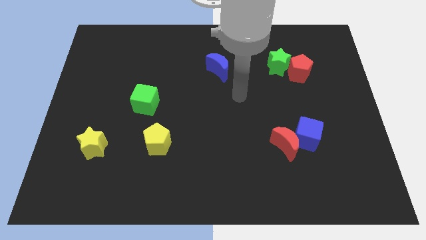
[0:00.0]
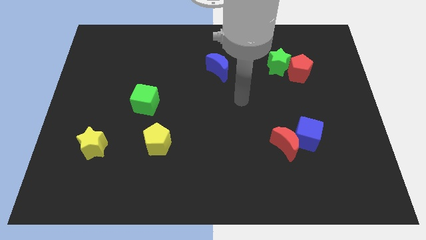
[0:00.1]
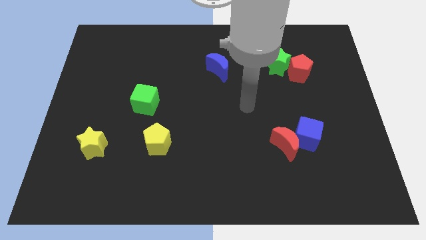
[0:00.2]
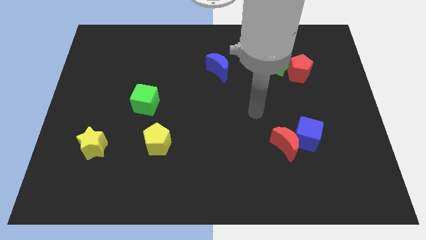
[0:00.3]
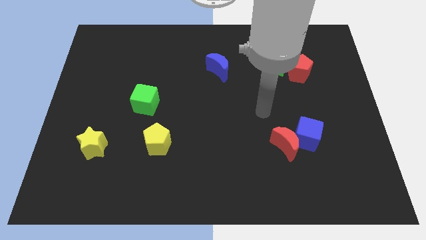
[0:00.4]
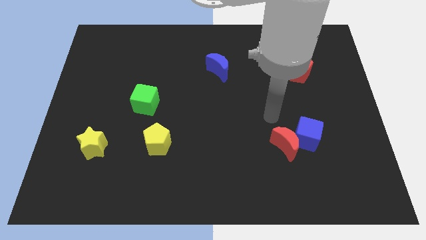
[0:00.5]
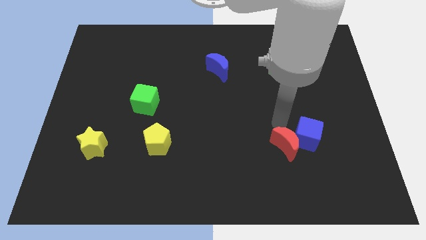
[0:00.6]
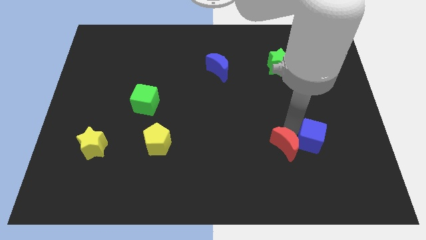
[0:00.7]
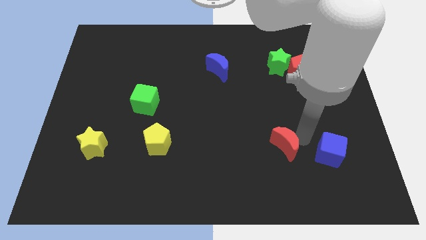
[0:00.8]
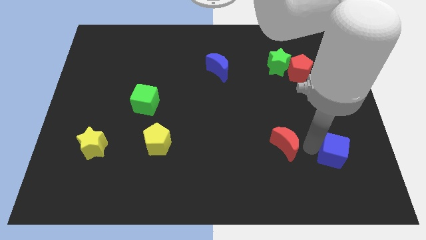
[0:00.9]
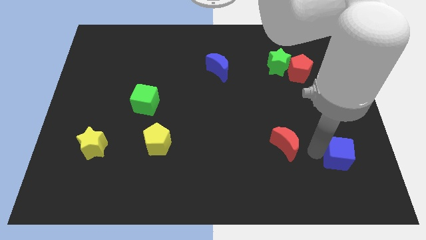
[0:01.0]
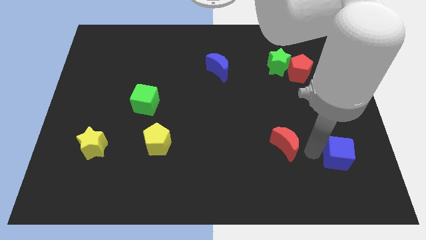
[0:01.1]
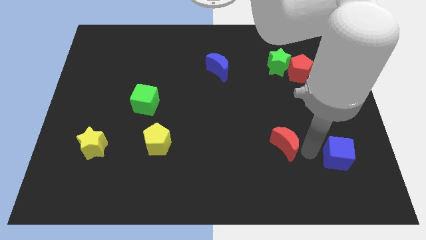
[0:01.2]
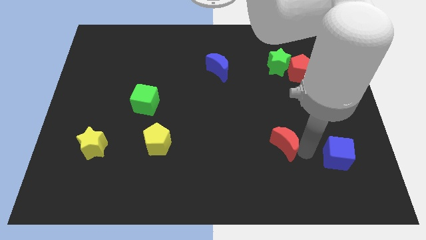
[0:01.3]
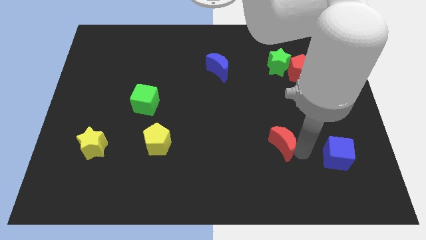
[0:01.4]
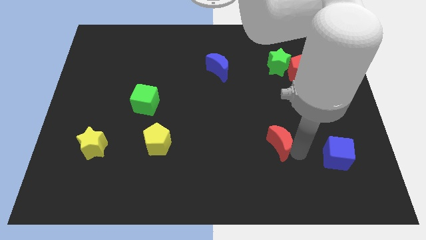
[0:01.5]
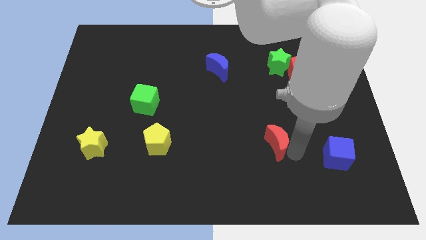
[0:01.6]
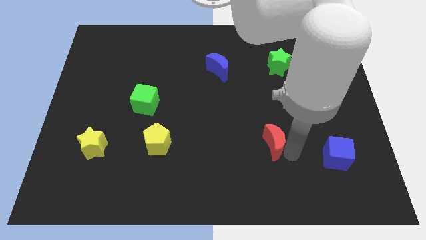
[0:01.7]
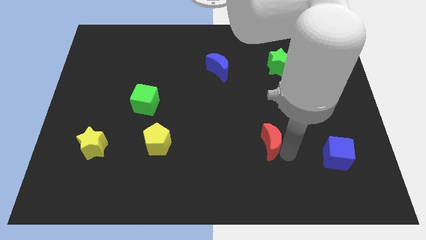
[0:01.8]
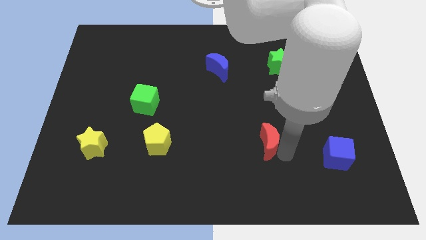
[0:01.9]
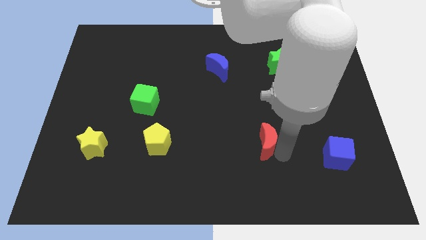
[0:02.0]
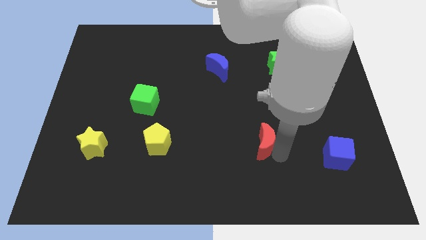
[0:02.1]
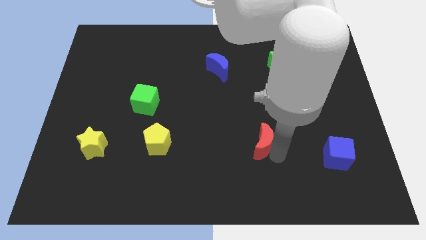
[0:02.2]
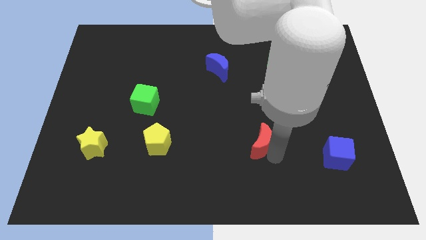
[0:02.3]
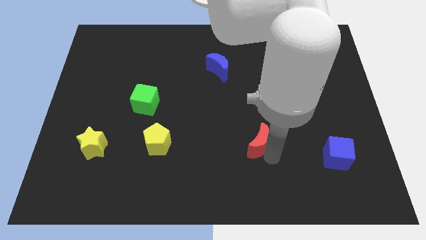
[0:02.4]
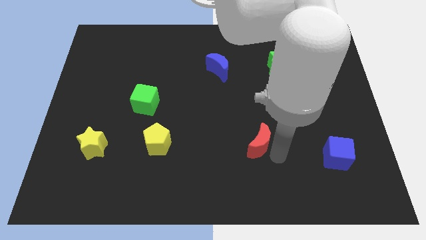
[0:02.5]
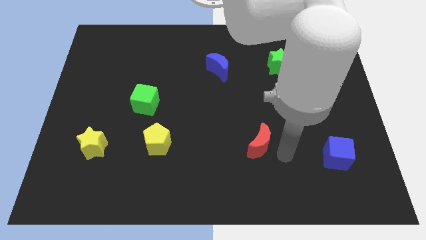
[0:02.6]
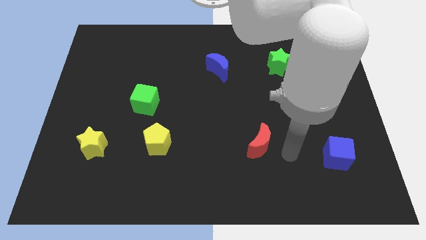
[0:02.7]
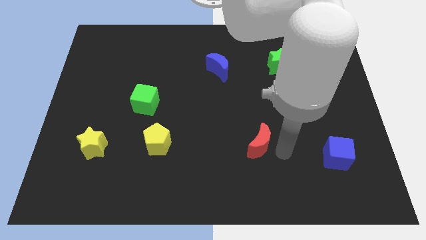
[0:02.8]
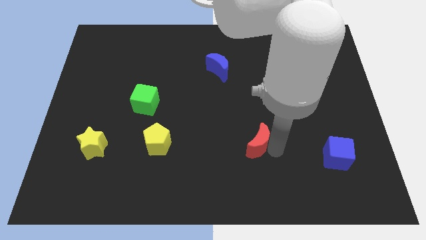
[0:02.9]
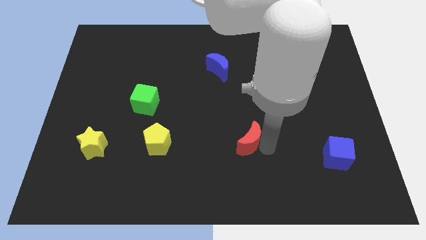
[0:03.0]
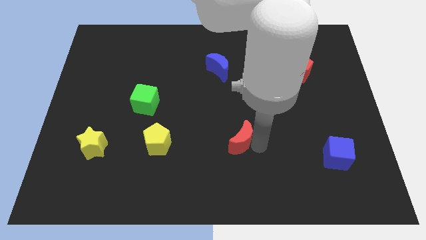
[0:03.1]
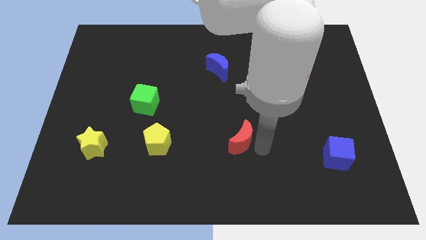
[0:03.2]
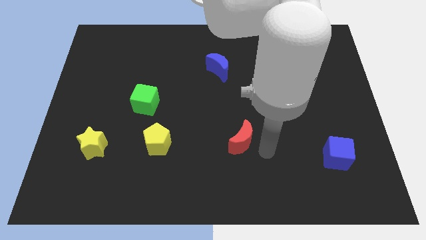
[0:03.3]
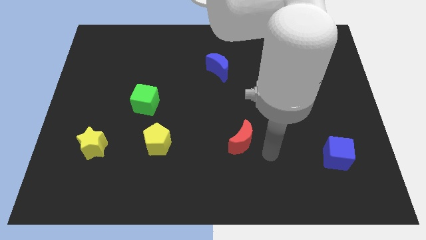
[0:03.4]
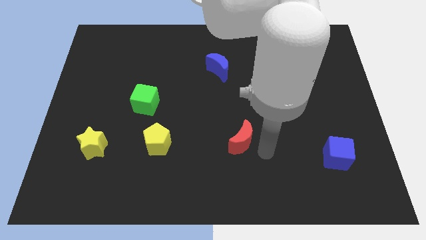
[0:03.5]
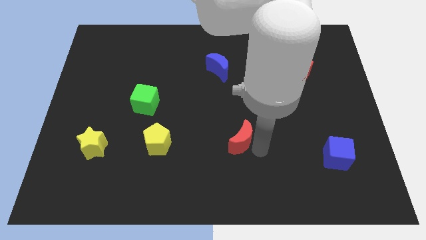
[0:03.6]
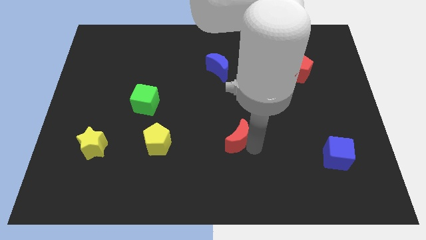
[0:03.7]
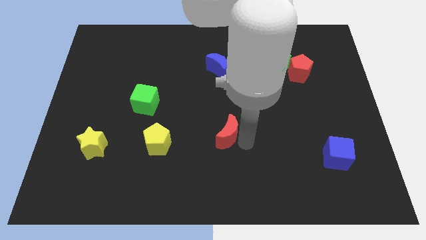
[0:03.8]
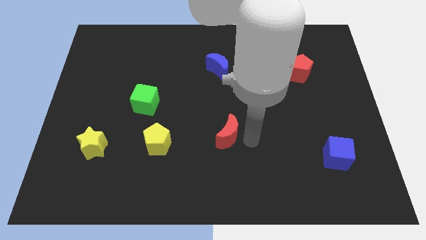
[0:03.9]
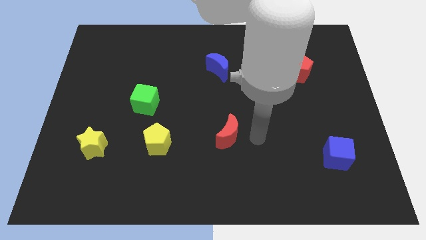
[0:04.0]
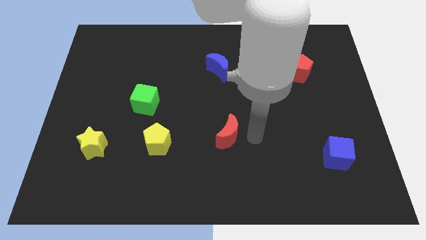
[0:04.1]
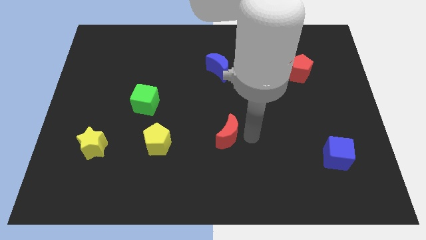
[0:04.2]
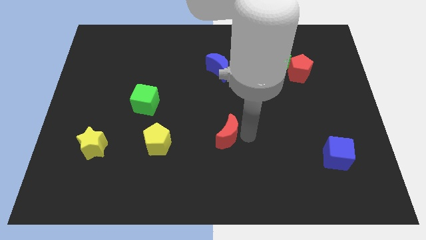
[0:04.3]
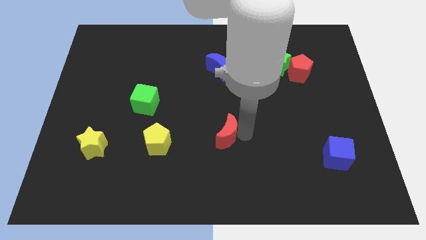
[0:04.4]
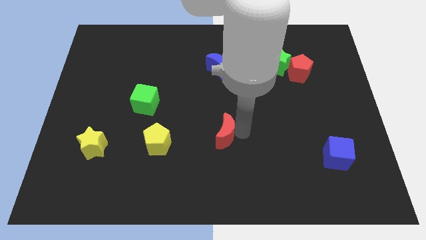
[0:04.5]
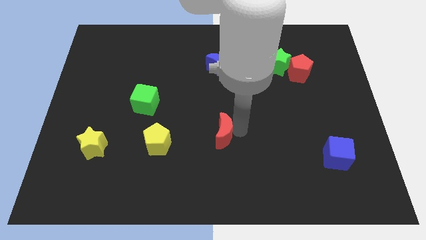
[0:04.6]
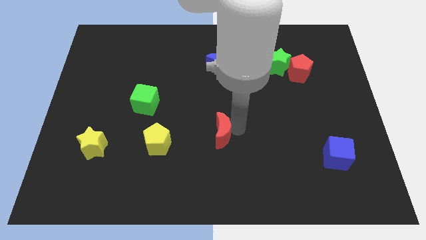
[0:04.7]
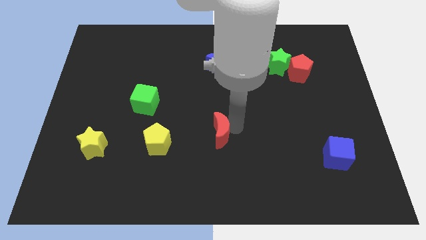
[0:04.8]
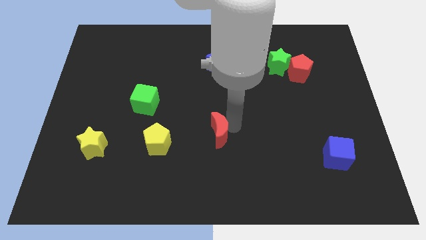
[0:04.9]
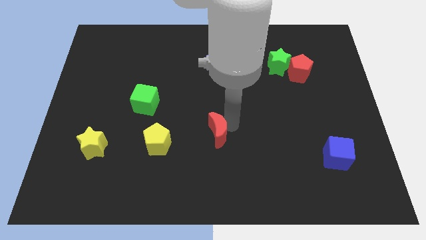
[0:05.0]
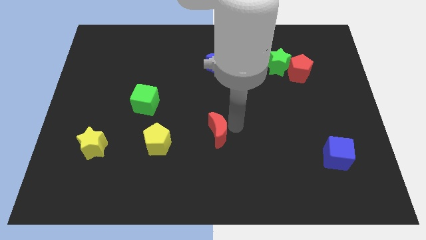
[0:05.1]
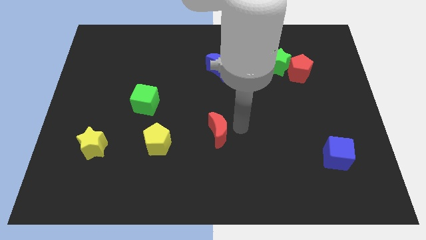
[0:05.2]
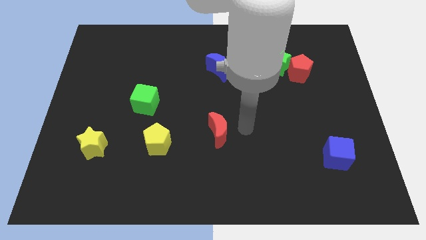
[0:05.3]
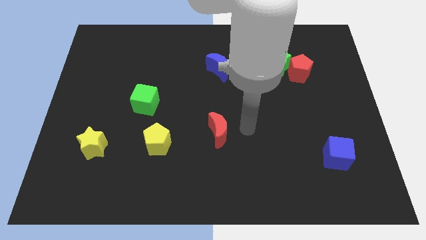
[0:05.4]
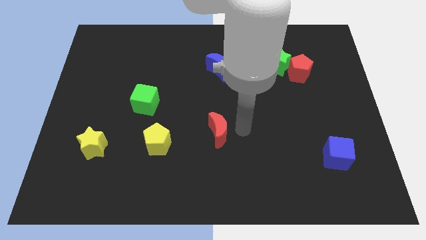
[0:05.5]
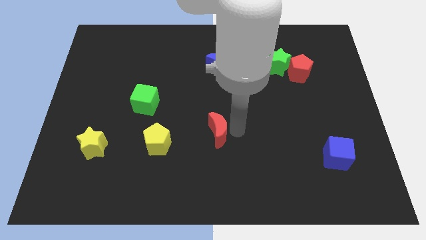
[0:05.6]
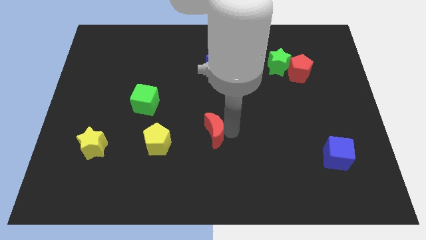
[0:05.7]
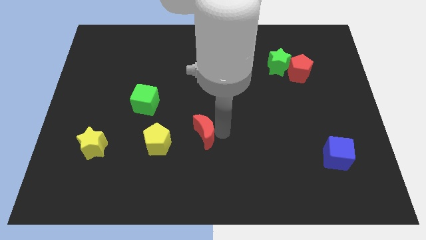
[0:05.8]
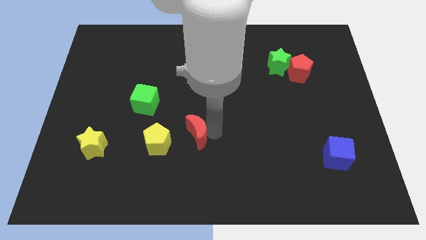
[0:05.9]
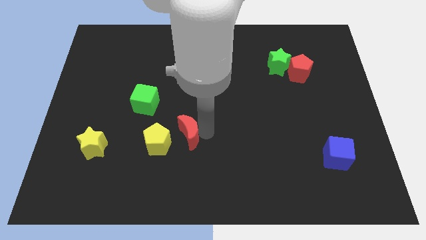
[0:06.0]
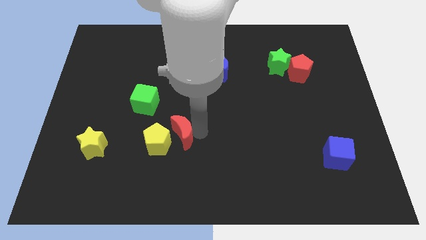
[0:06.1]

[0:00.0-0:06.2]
put the red moon close to the yellow pentagon

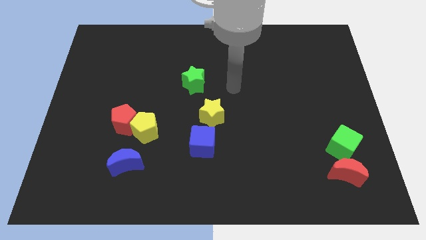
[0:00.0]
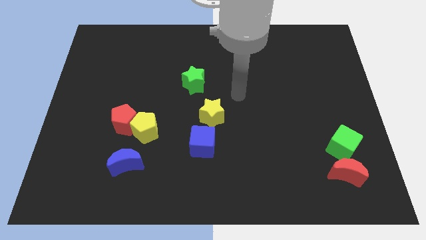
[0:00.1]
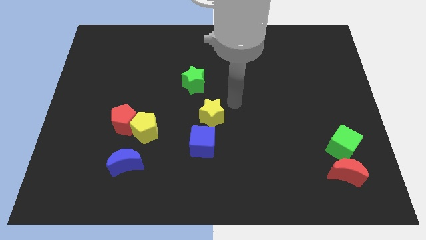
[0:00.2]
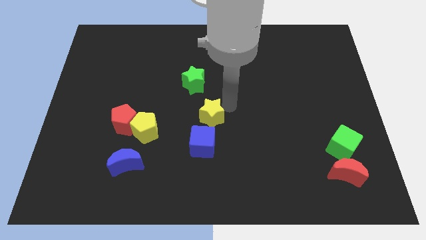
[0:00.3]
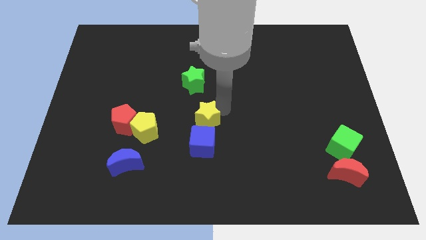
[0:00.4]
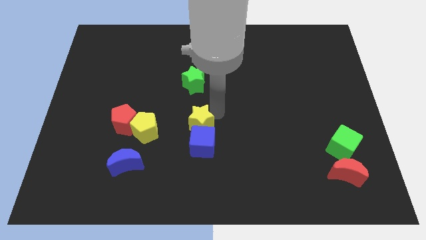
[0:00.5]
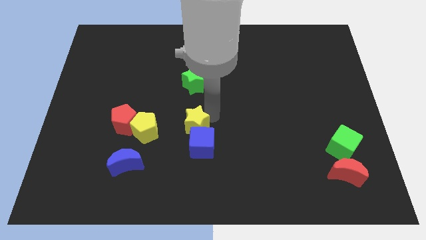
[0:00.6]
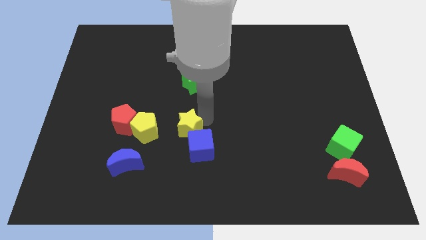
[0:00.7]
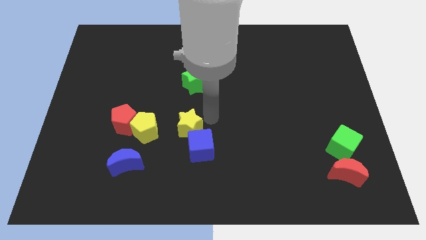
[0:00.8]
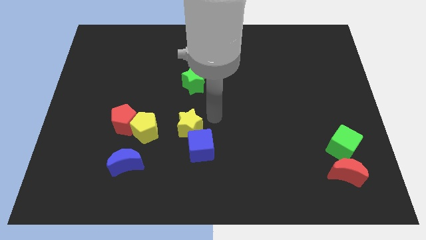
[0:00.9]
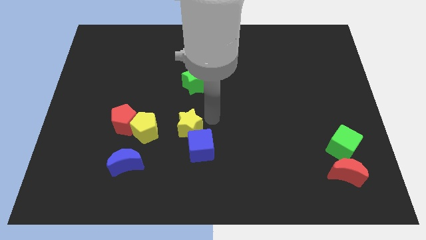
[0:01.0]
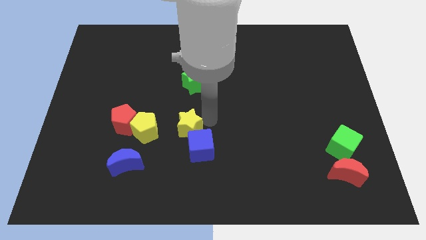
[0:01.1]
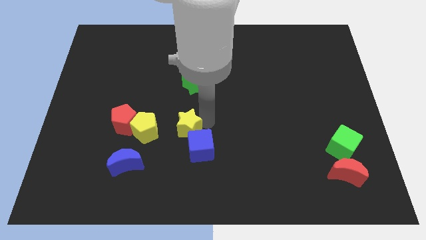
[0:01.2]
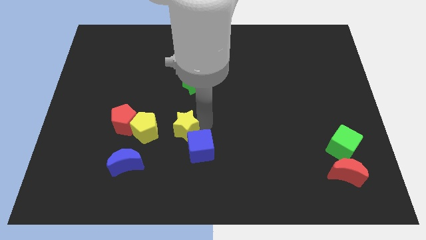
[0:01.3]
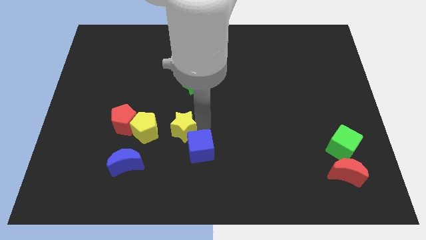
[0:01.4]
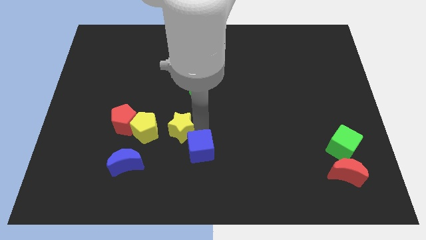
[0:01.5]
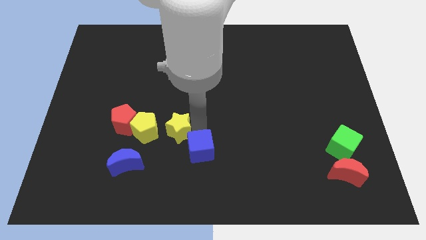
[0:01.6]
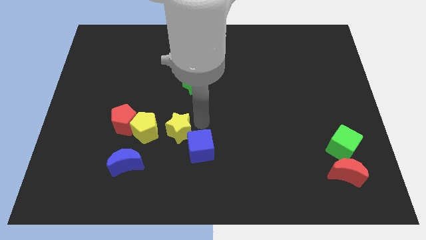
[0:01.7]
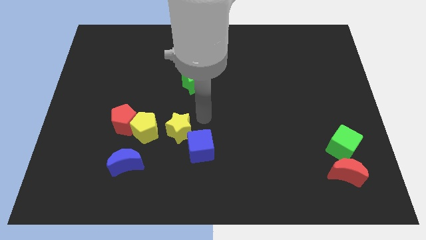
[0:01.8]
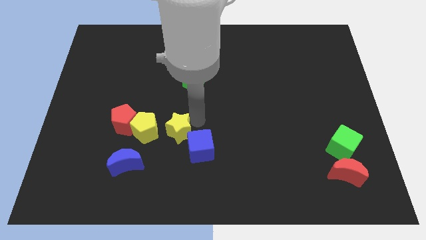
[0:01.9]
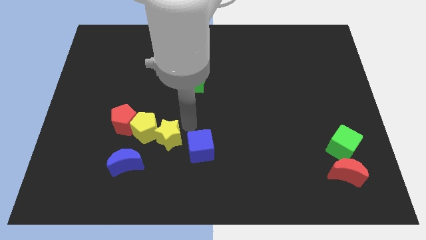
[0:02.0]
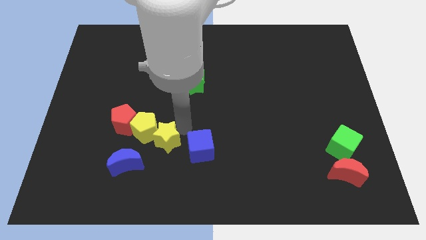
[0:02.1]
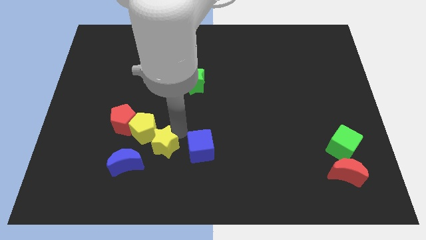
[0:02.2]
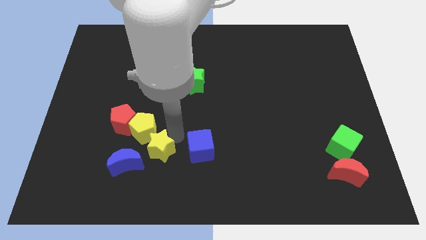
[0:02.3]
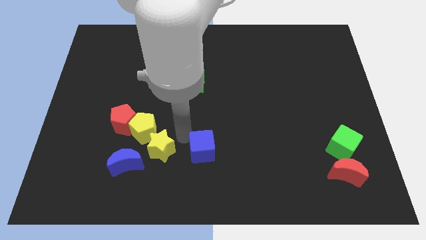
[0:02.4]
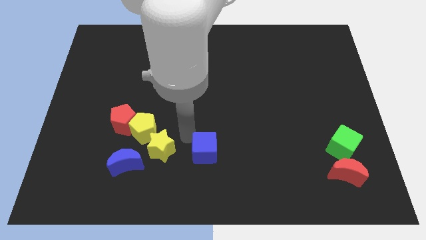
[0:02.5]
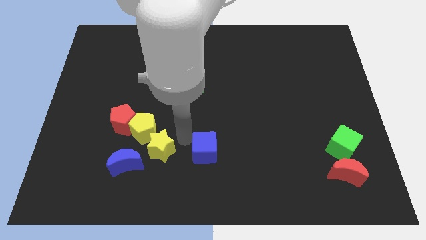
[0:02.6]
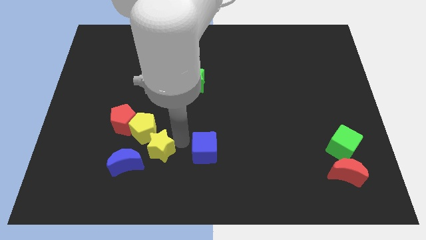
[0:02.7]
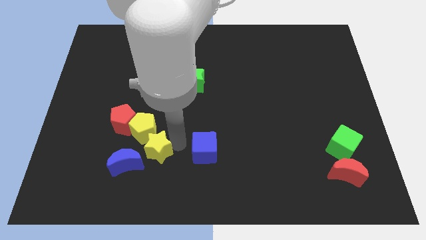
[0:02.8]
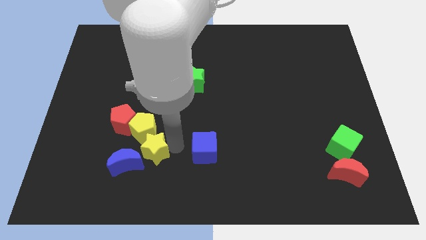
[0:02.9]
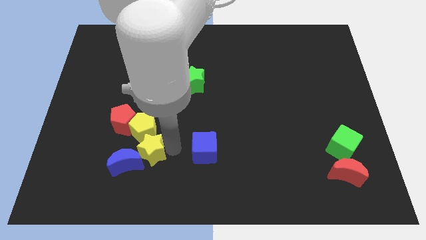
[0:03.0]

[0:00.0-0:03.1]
move the yellow star towards the blue moon
